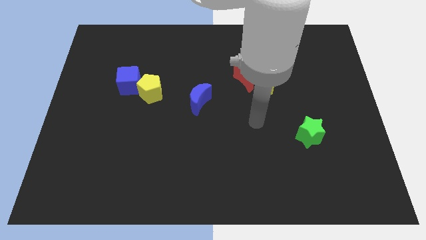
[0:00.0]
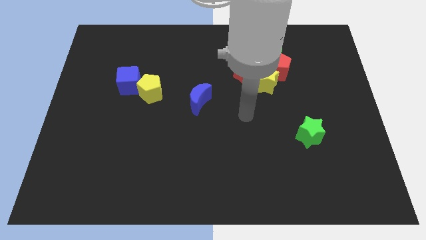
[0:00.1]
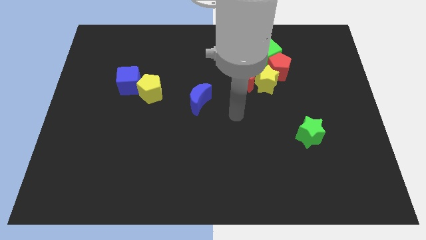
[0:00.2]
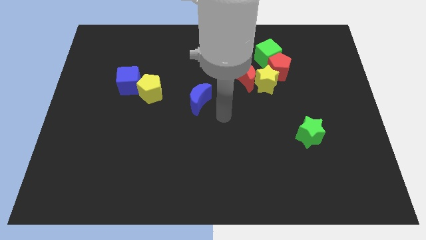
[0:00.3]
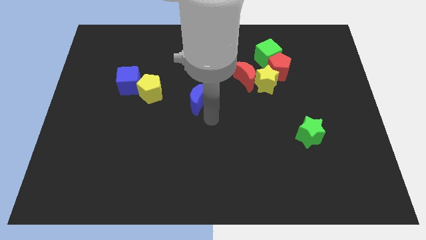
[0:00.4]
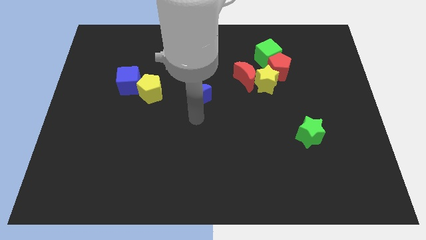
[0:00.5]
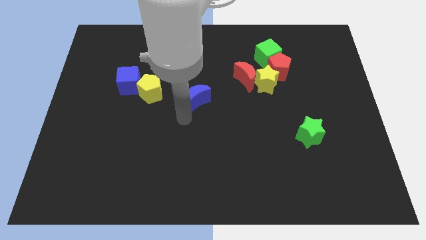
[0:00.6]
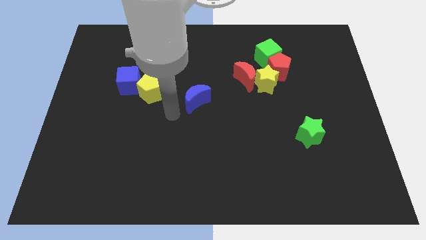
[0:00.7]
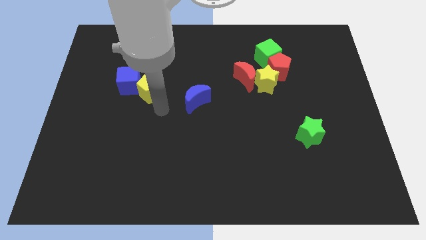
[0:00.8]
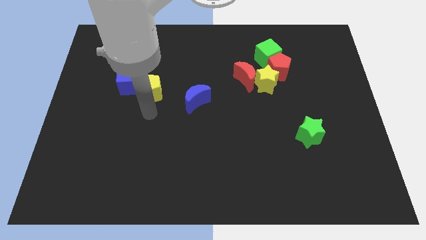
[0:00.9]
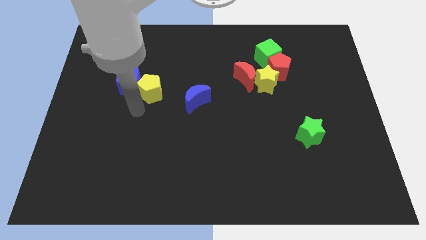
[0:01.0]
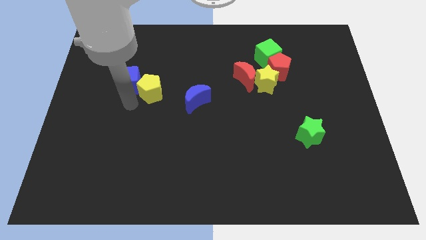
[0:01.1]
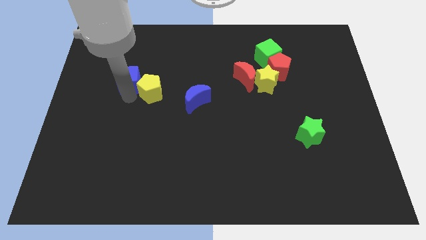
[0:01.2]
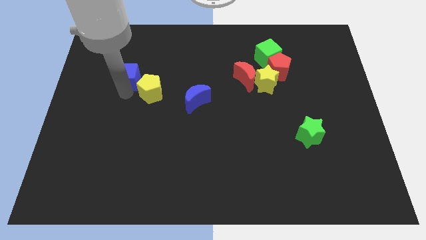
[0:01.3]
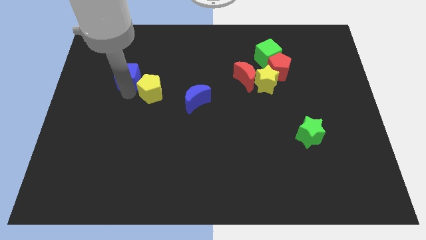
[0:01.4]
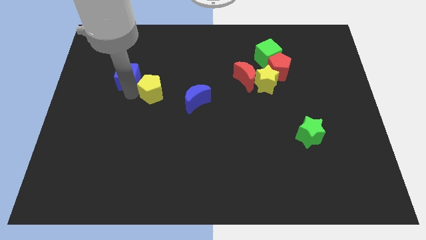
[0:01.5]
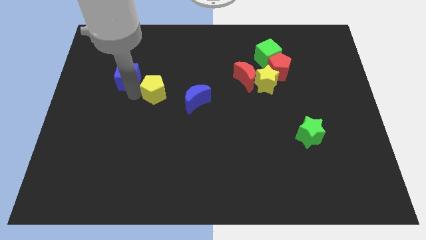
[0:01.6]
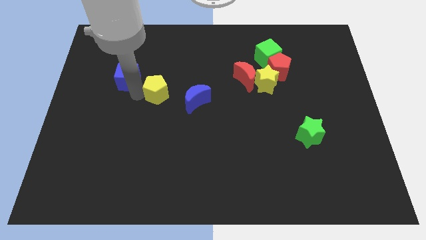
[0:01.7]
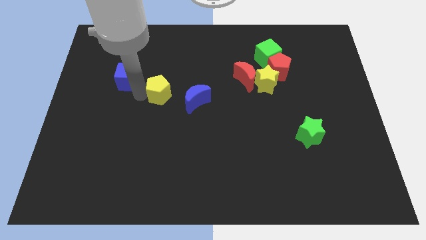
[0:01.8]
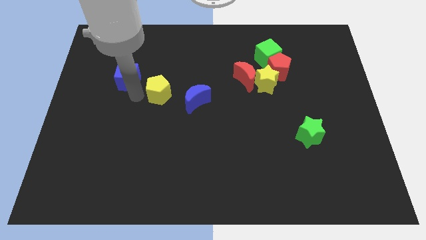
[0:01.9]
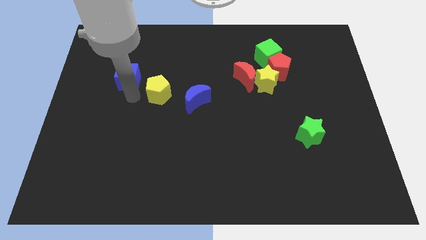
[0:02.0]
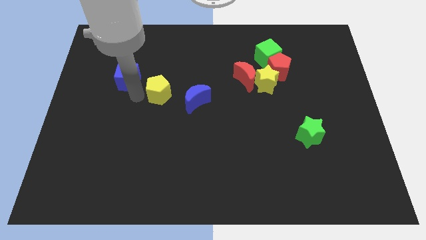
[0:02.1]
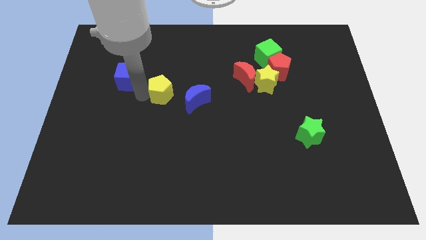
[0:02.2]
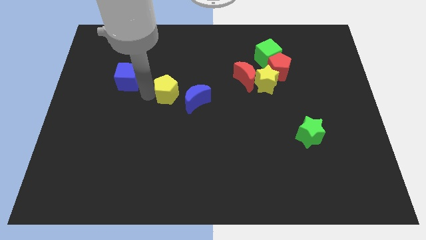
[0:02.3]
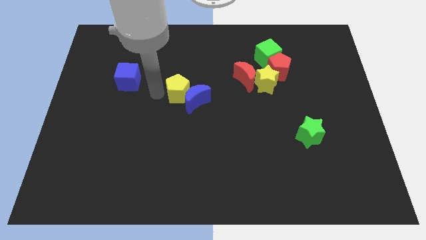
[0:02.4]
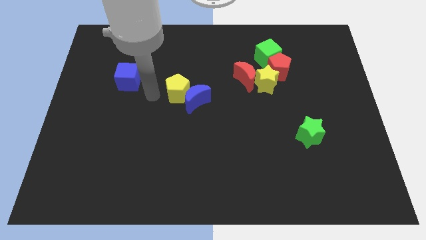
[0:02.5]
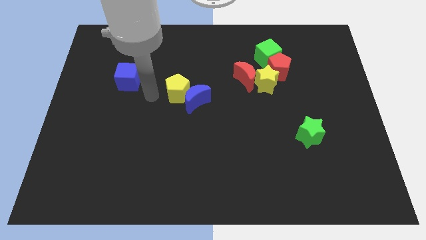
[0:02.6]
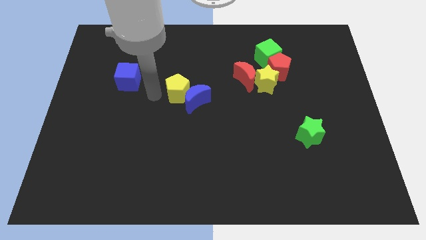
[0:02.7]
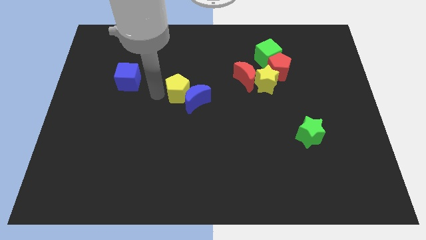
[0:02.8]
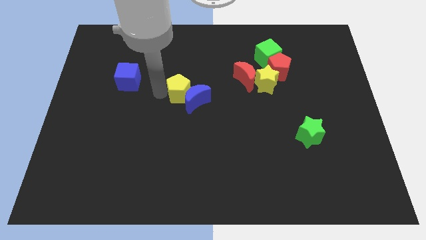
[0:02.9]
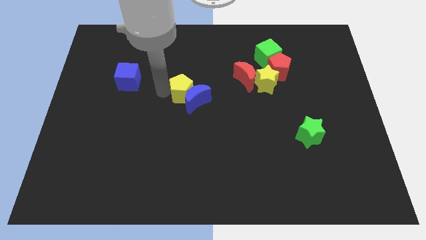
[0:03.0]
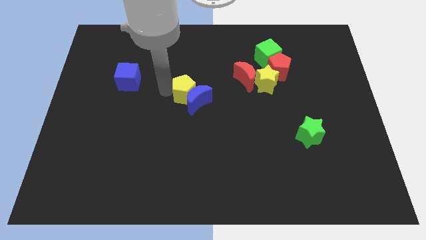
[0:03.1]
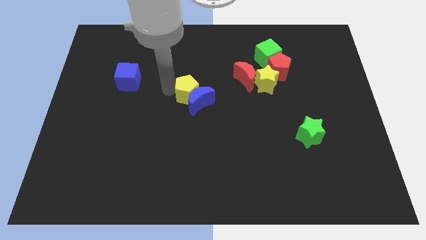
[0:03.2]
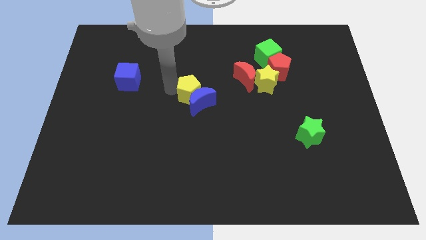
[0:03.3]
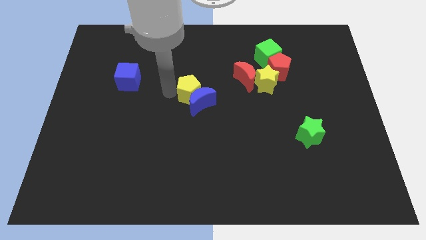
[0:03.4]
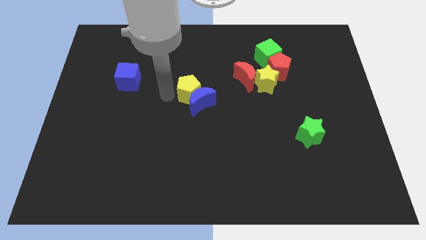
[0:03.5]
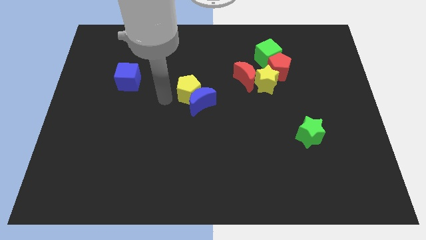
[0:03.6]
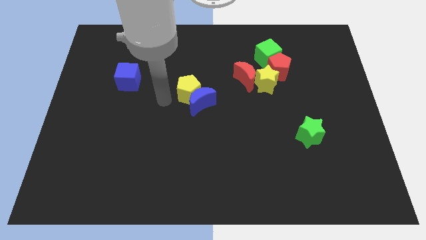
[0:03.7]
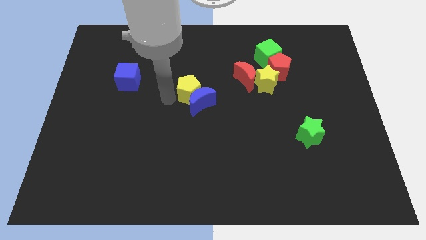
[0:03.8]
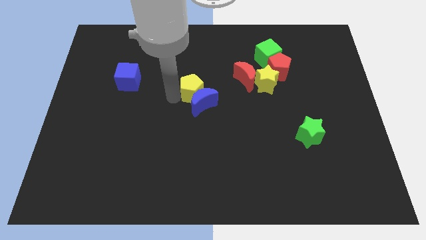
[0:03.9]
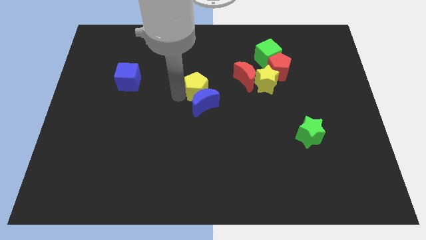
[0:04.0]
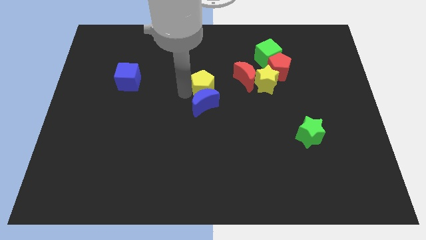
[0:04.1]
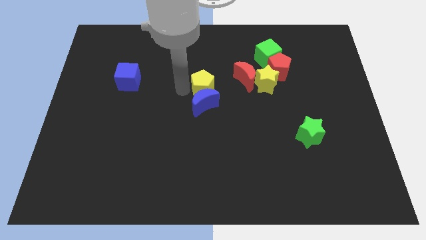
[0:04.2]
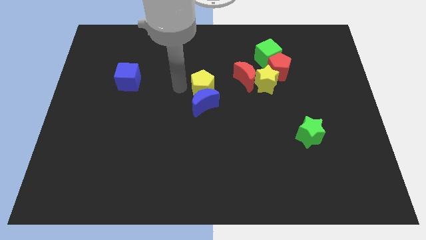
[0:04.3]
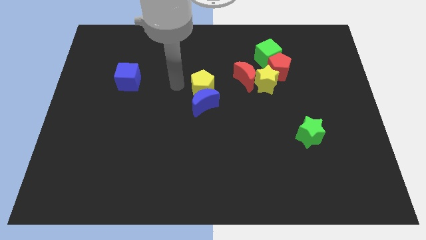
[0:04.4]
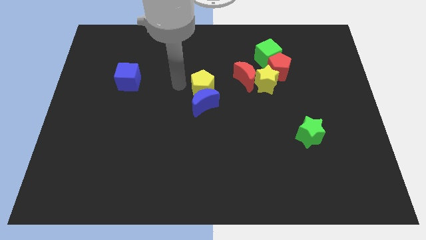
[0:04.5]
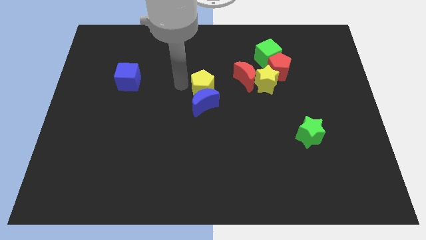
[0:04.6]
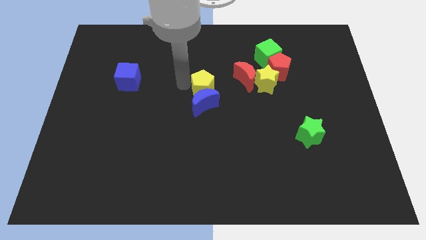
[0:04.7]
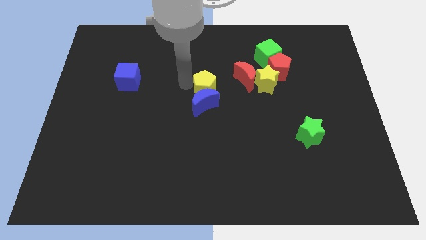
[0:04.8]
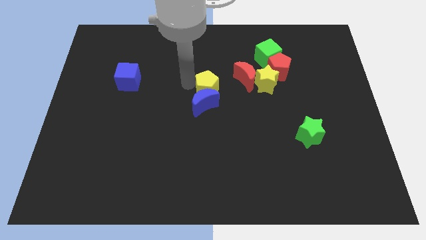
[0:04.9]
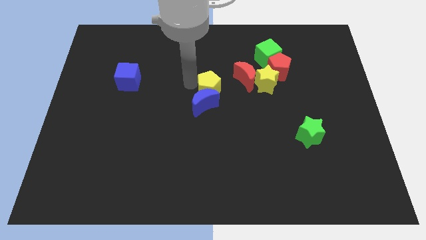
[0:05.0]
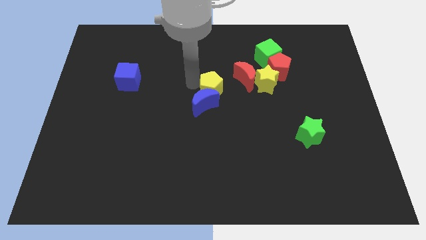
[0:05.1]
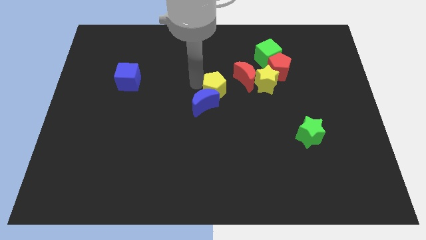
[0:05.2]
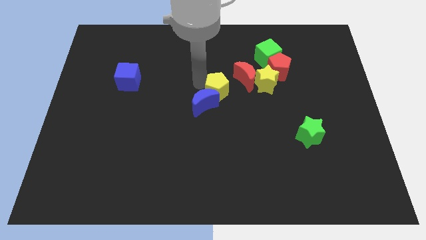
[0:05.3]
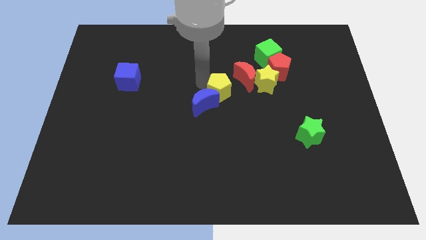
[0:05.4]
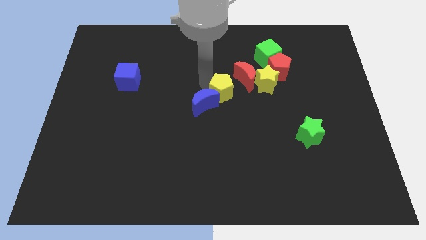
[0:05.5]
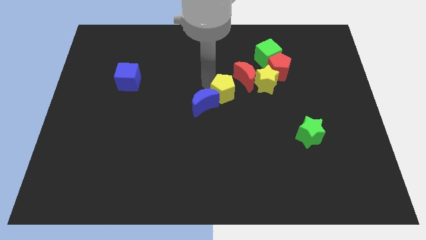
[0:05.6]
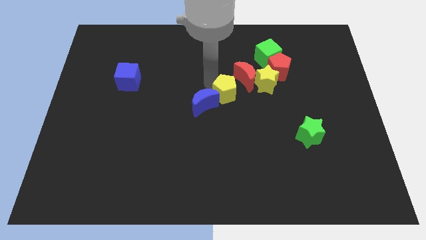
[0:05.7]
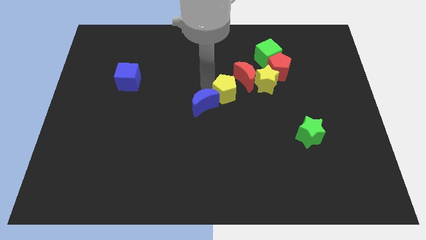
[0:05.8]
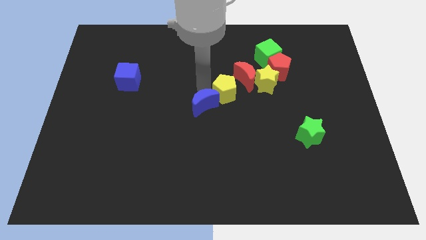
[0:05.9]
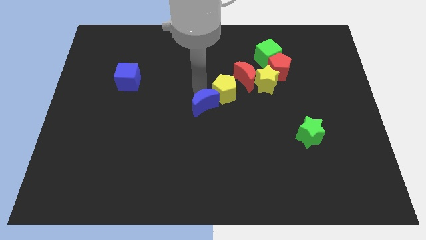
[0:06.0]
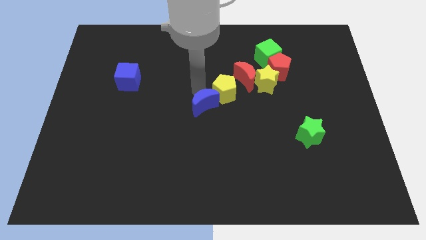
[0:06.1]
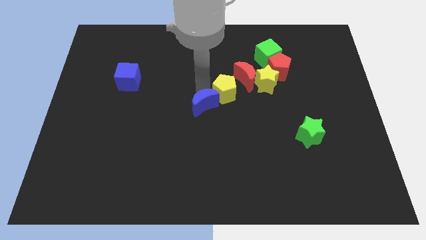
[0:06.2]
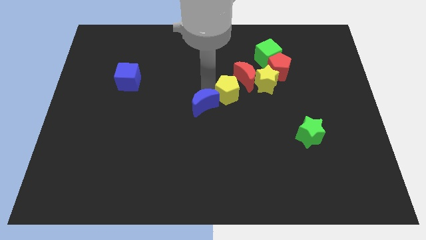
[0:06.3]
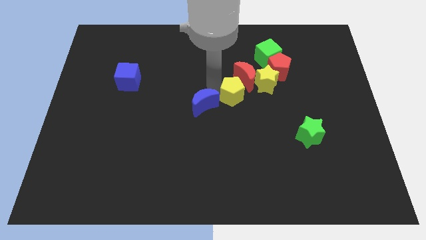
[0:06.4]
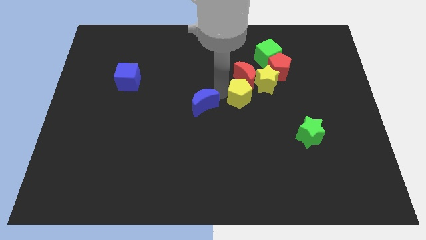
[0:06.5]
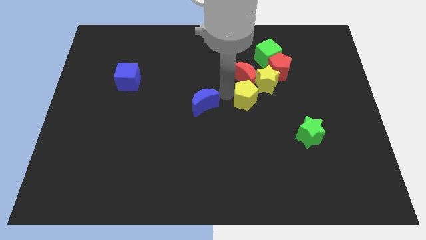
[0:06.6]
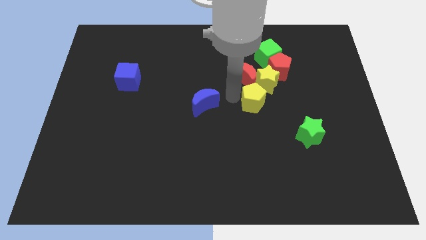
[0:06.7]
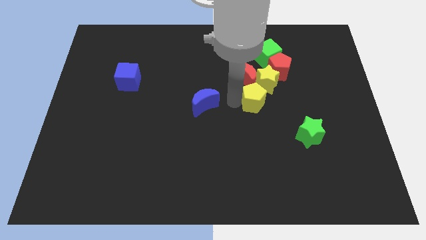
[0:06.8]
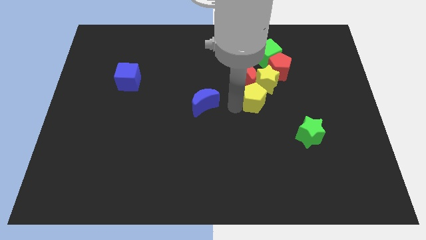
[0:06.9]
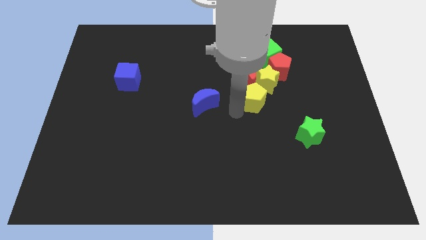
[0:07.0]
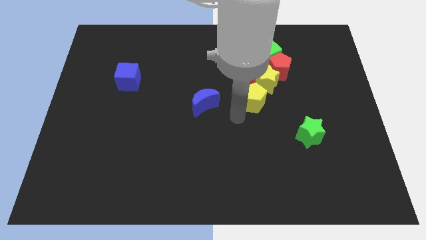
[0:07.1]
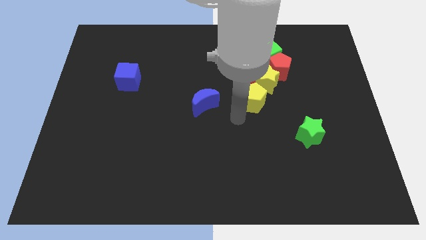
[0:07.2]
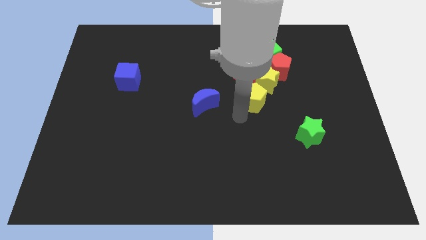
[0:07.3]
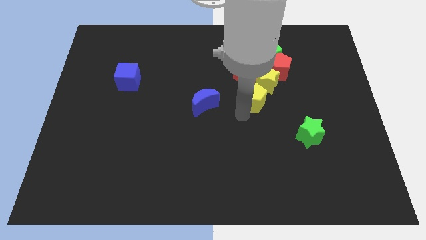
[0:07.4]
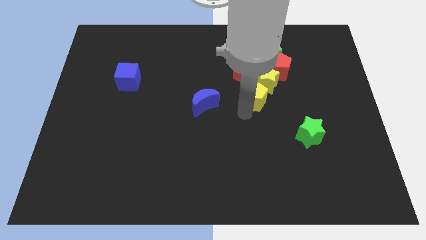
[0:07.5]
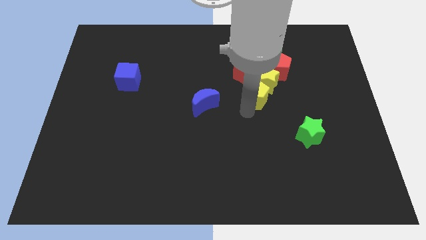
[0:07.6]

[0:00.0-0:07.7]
put the yellow pentagon next to the yellow star
